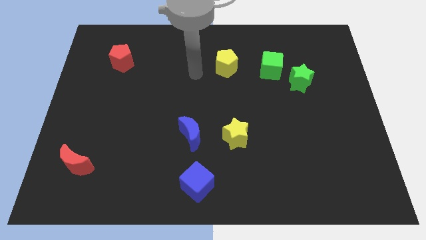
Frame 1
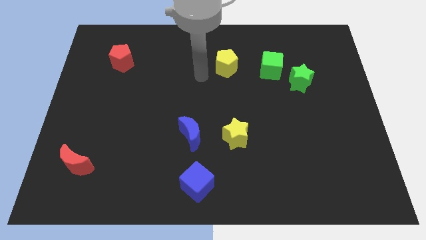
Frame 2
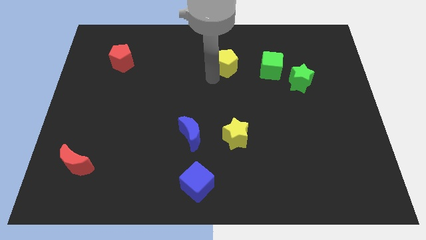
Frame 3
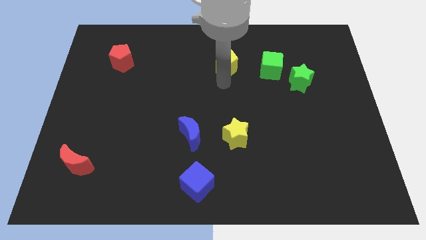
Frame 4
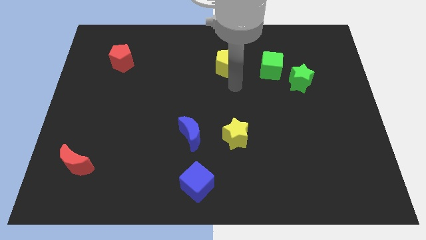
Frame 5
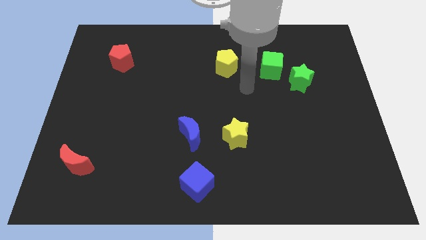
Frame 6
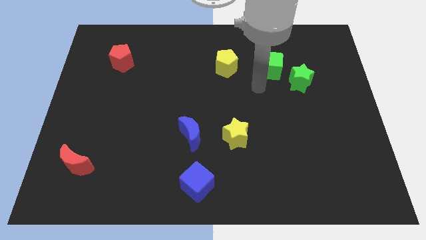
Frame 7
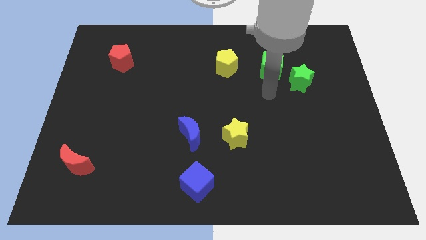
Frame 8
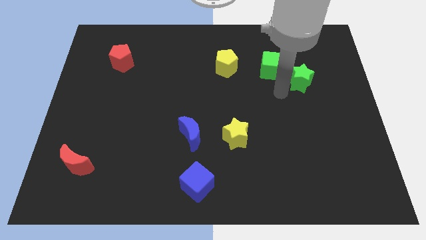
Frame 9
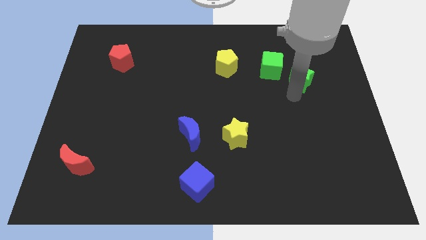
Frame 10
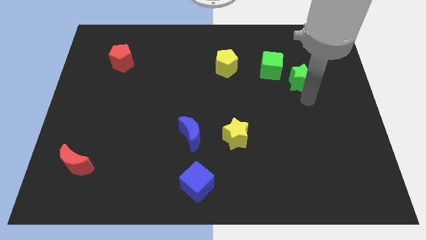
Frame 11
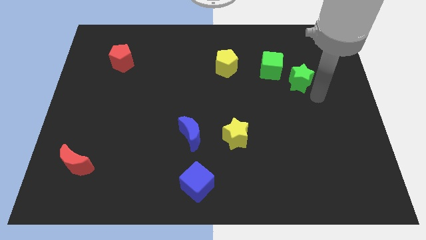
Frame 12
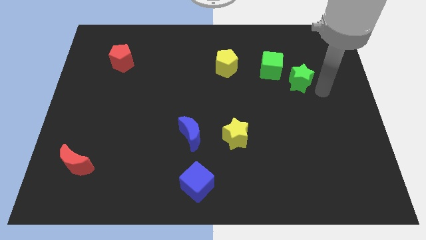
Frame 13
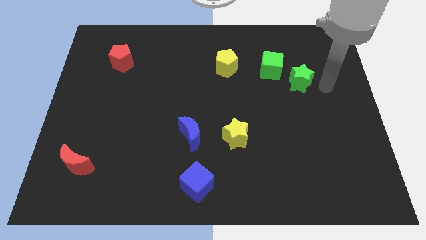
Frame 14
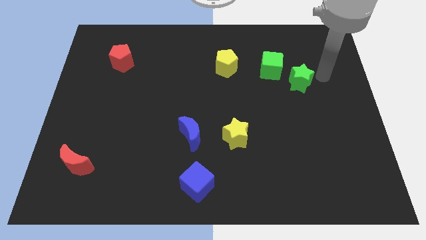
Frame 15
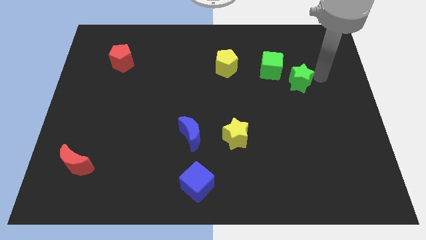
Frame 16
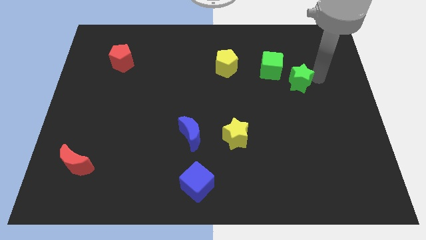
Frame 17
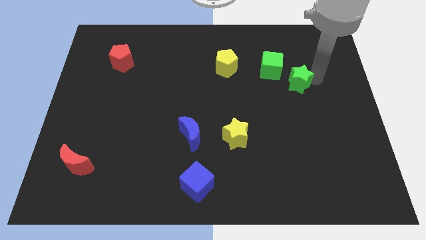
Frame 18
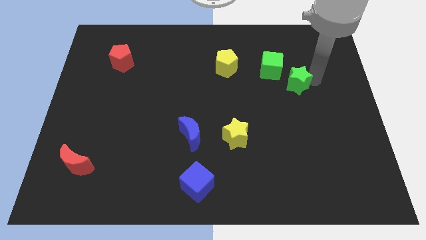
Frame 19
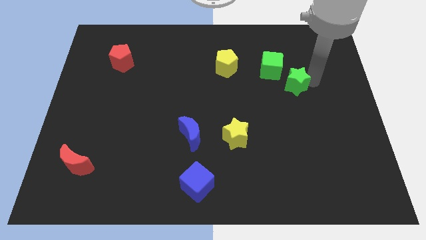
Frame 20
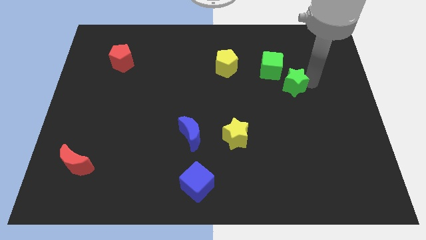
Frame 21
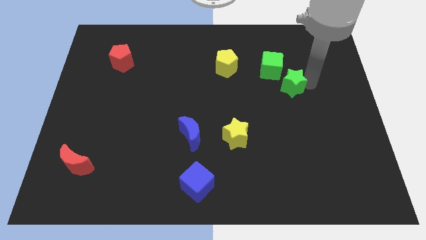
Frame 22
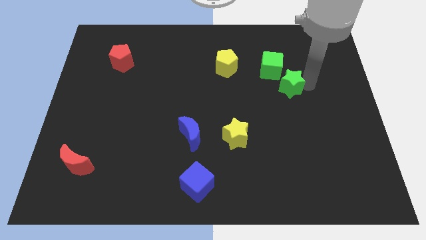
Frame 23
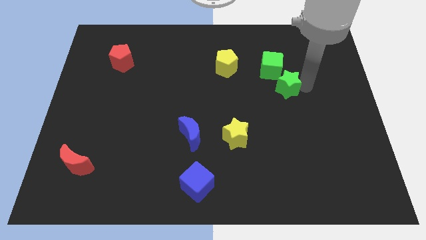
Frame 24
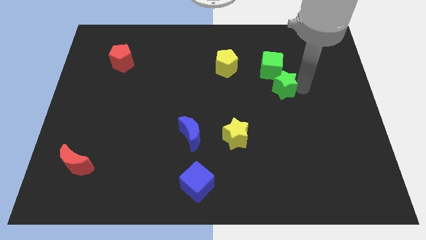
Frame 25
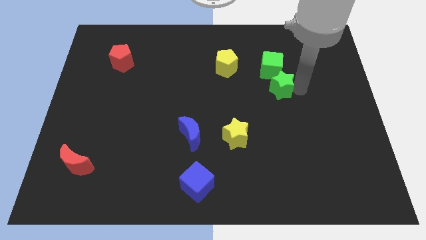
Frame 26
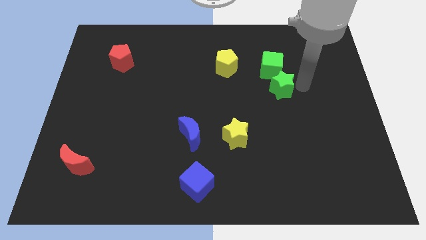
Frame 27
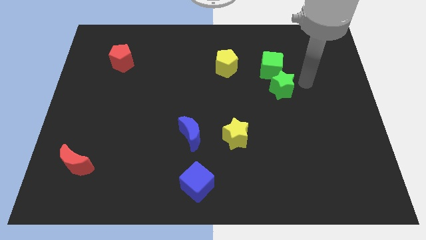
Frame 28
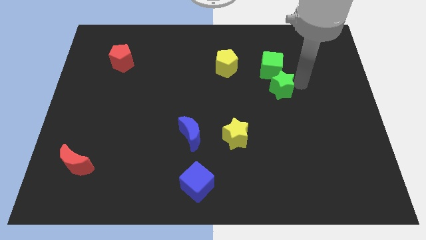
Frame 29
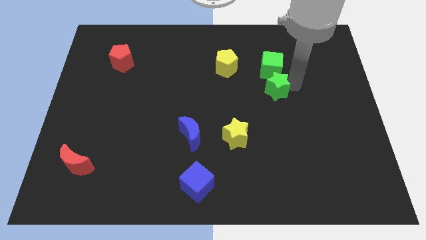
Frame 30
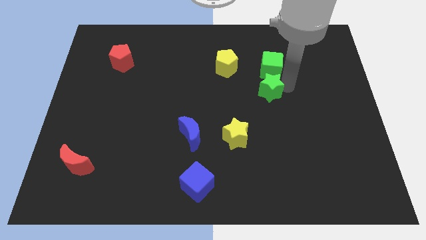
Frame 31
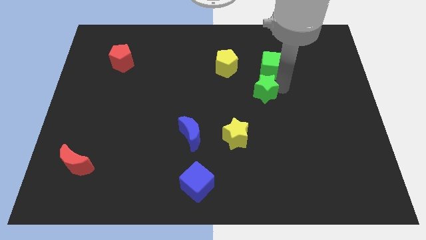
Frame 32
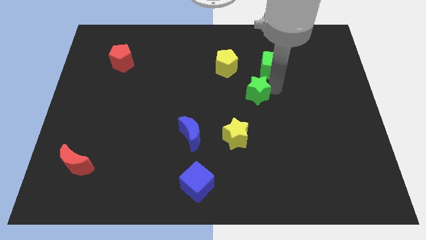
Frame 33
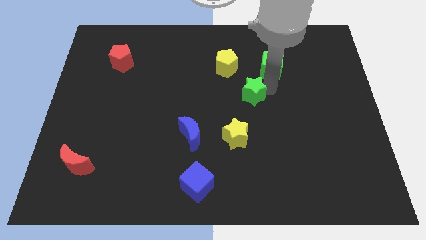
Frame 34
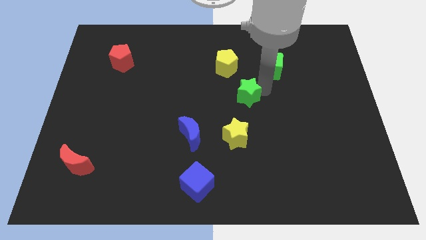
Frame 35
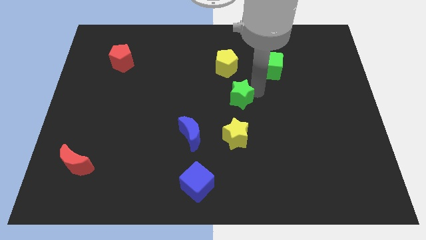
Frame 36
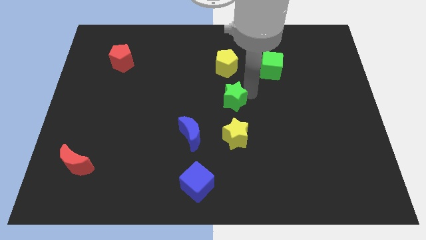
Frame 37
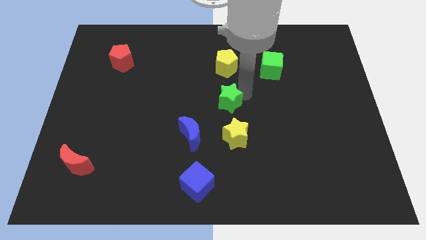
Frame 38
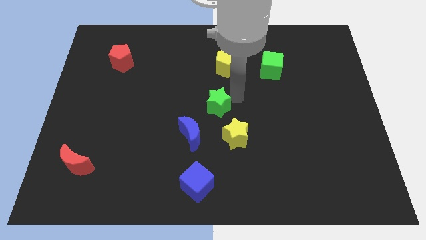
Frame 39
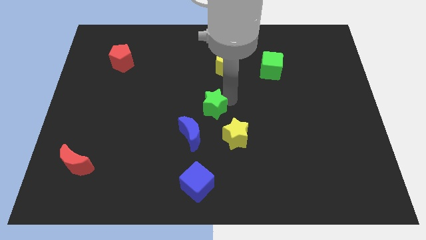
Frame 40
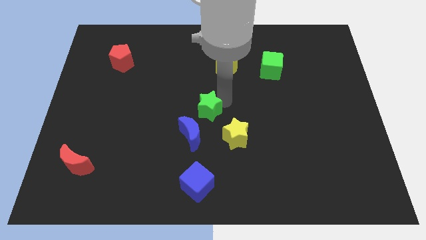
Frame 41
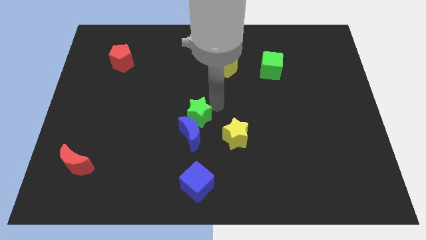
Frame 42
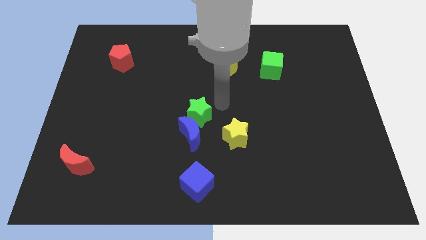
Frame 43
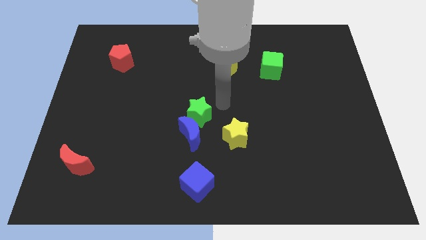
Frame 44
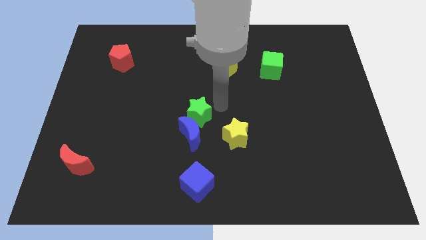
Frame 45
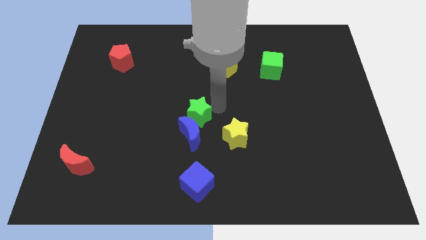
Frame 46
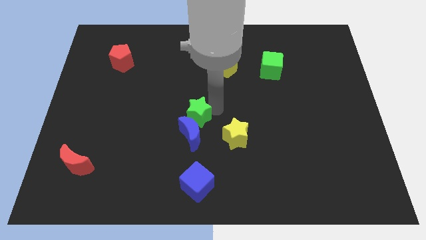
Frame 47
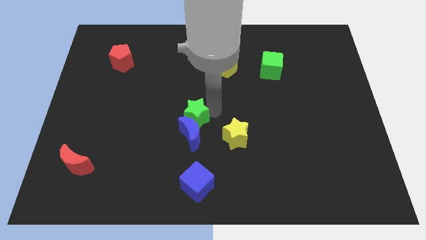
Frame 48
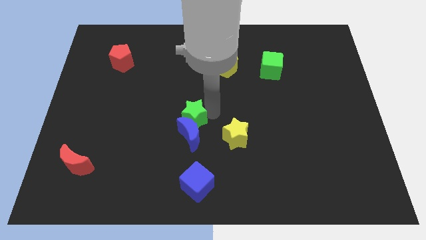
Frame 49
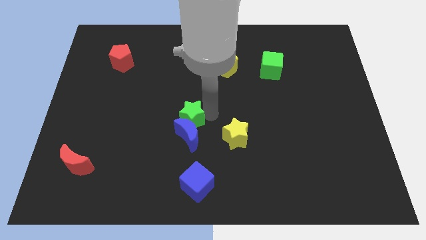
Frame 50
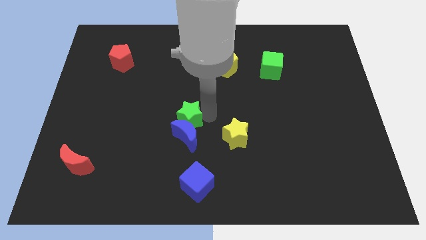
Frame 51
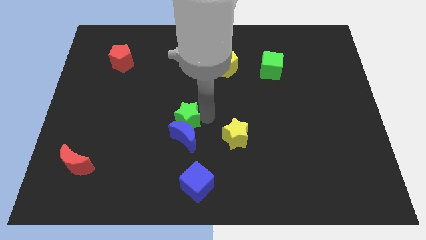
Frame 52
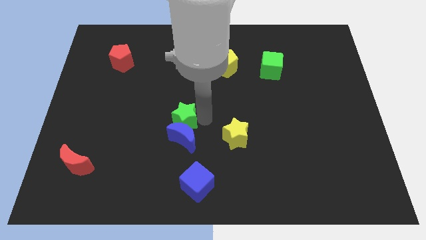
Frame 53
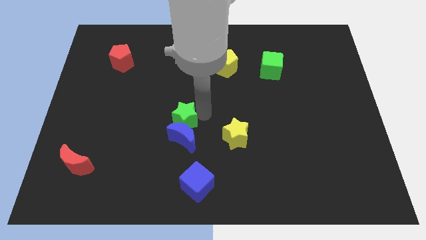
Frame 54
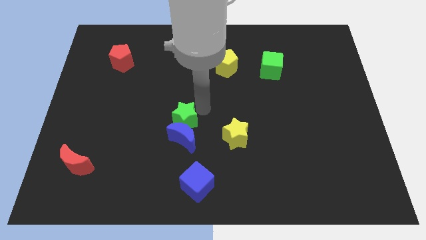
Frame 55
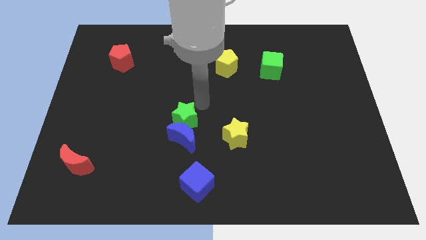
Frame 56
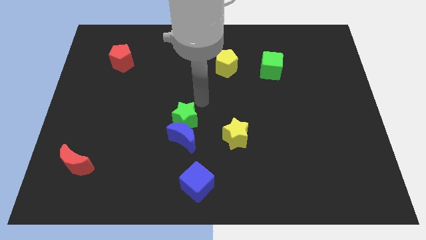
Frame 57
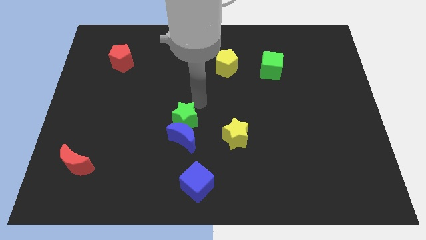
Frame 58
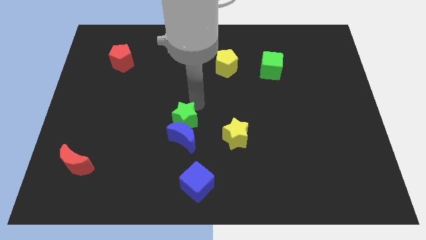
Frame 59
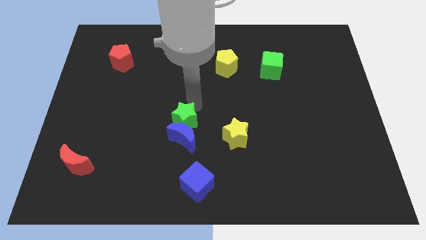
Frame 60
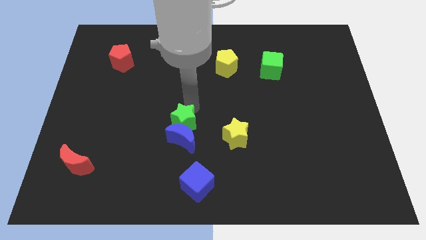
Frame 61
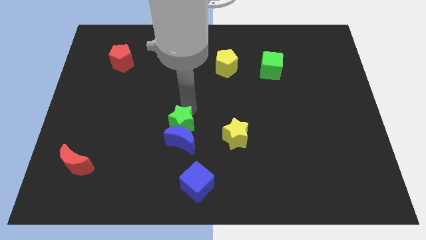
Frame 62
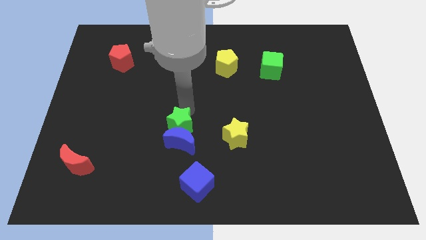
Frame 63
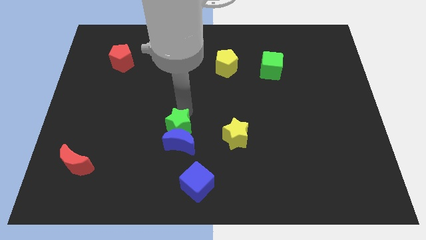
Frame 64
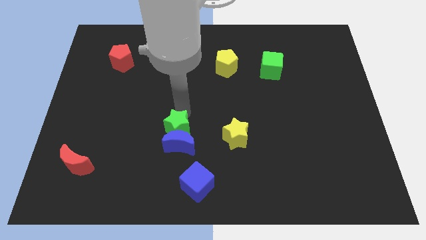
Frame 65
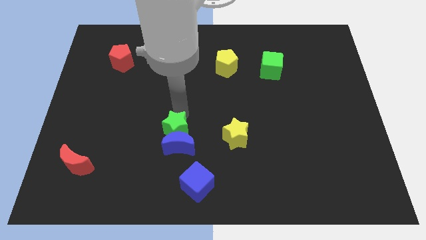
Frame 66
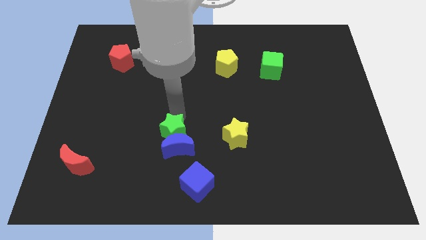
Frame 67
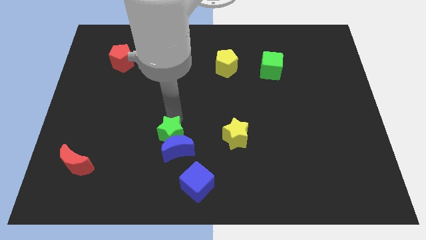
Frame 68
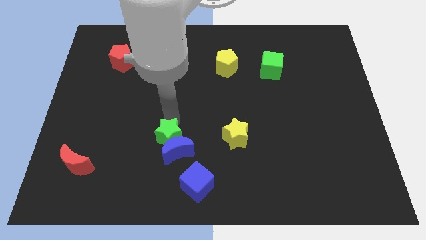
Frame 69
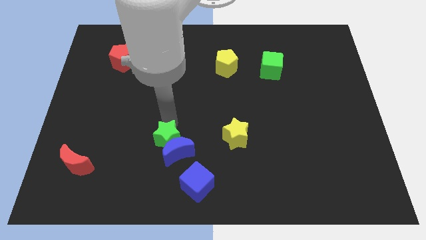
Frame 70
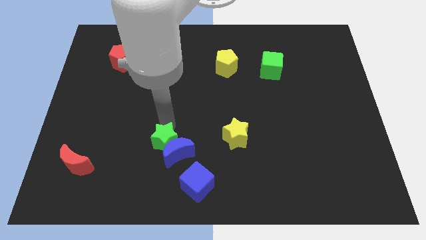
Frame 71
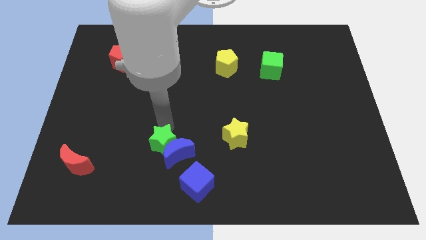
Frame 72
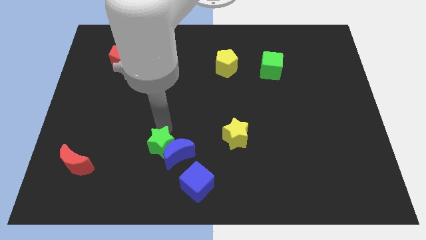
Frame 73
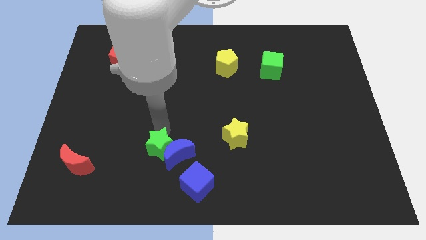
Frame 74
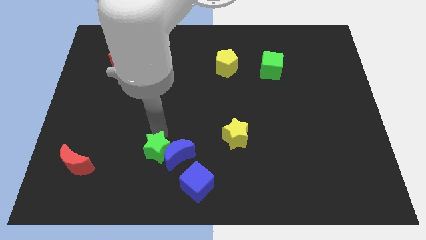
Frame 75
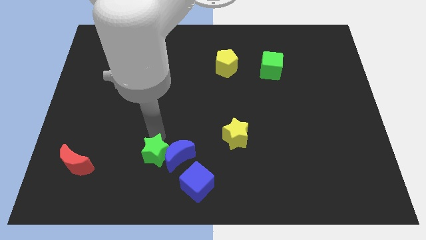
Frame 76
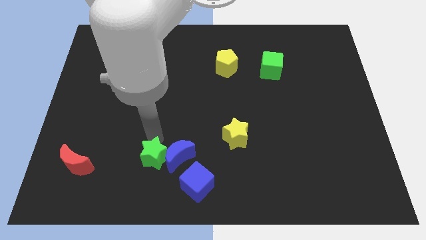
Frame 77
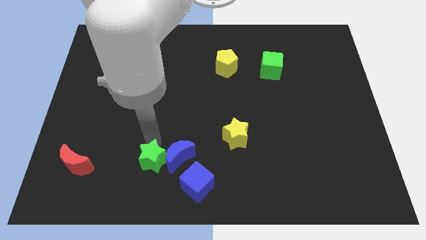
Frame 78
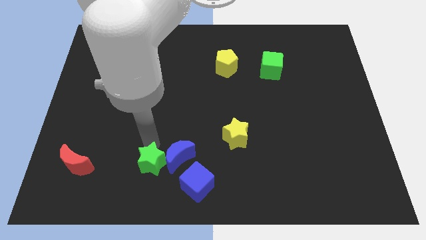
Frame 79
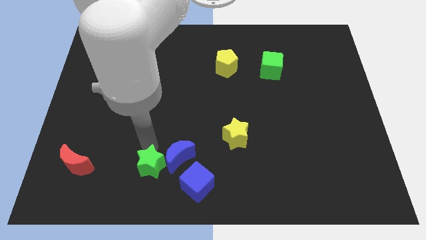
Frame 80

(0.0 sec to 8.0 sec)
push the green star to the left of the blue cube
